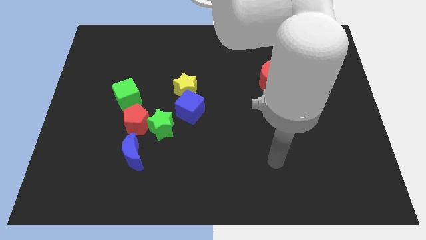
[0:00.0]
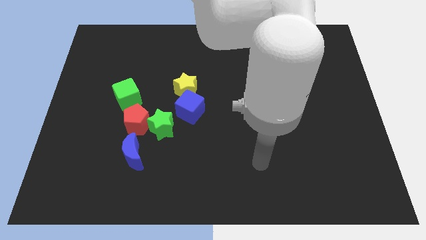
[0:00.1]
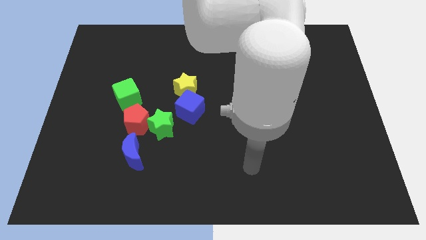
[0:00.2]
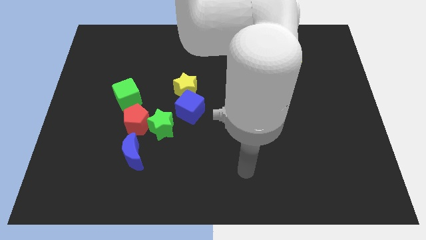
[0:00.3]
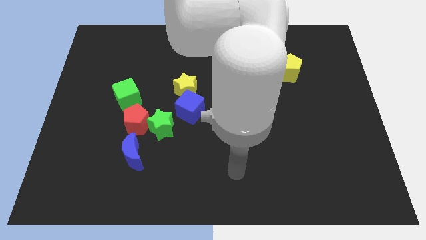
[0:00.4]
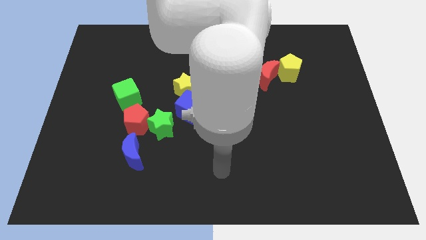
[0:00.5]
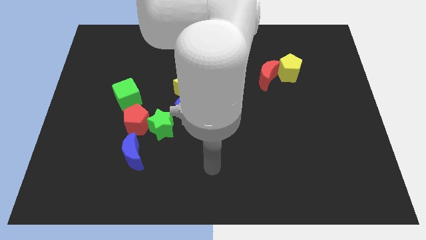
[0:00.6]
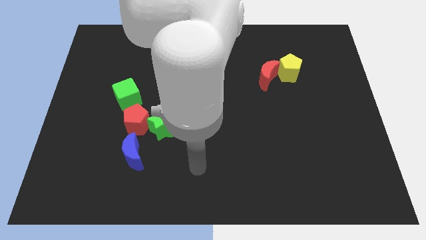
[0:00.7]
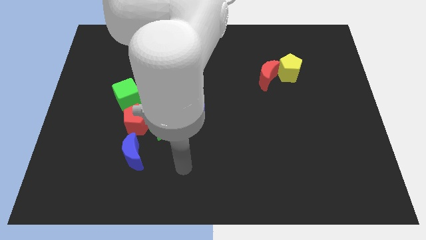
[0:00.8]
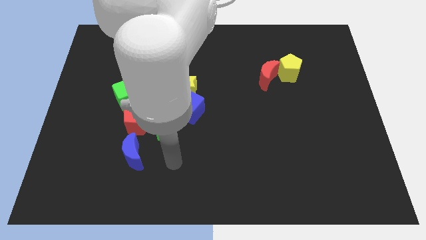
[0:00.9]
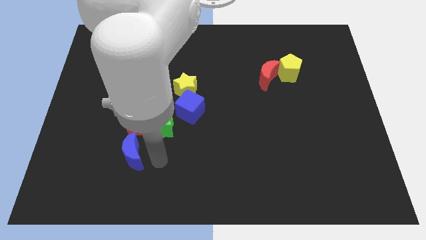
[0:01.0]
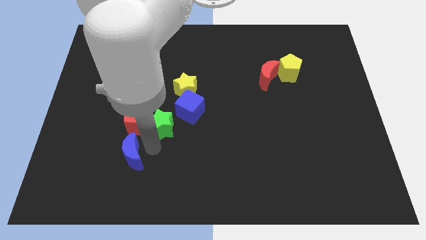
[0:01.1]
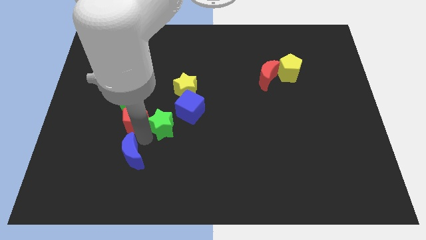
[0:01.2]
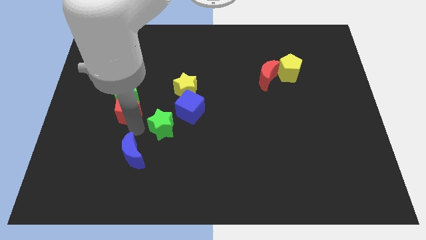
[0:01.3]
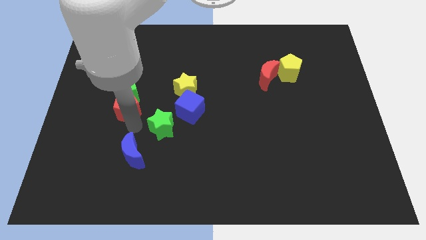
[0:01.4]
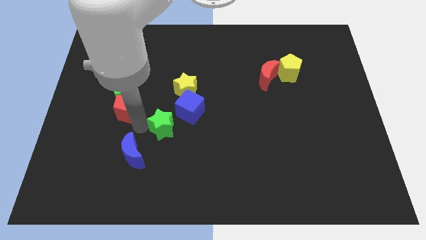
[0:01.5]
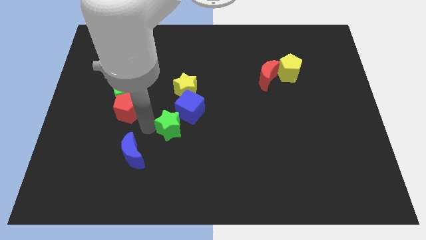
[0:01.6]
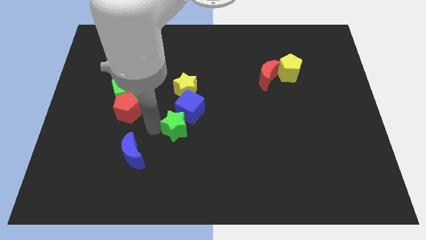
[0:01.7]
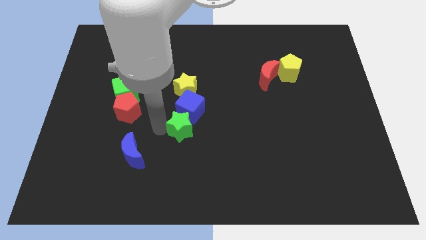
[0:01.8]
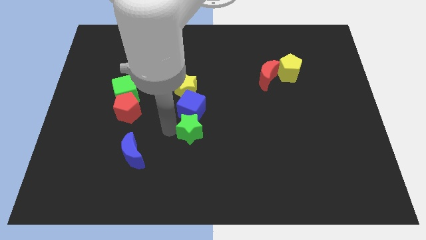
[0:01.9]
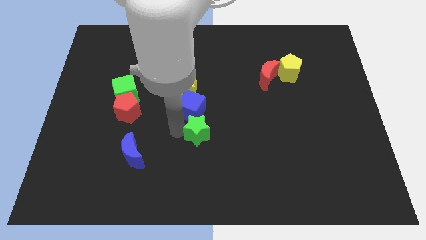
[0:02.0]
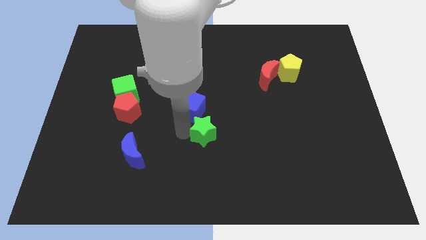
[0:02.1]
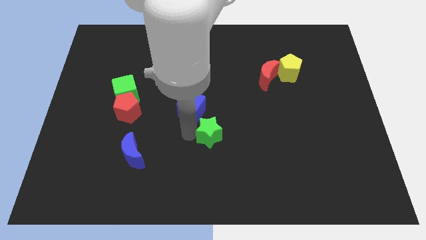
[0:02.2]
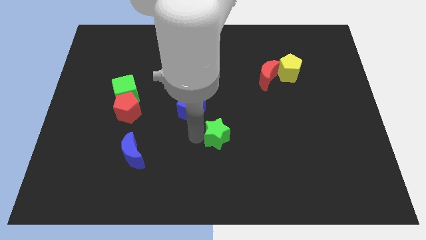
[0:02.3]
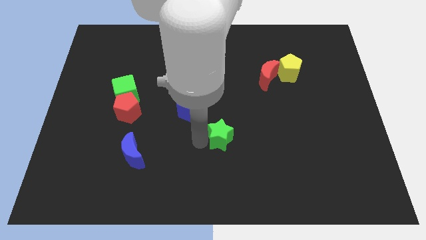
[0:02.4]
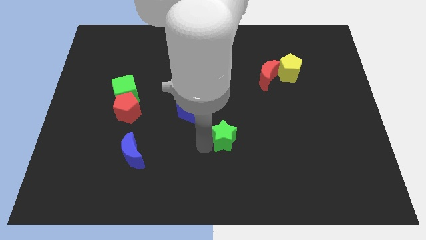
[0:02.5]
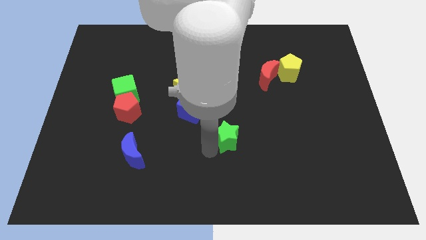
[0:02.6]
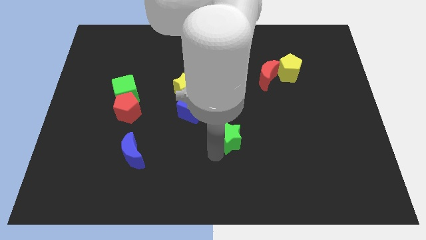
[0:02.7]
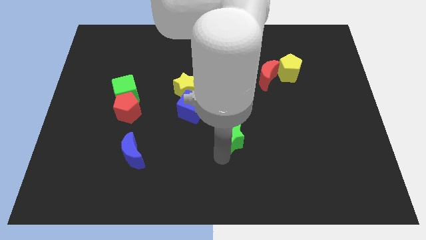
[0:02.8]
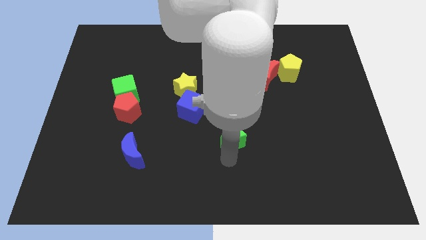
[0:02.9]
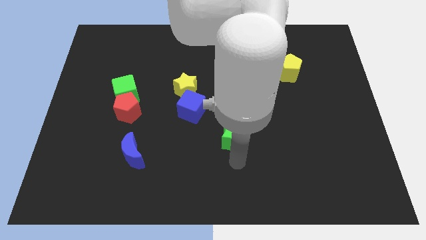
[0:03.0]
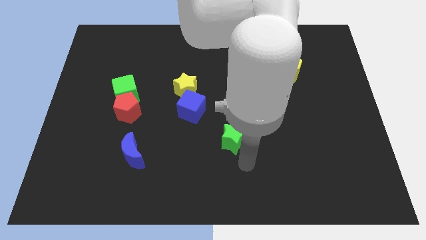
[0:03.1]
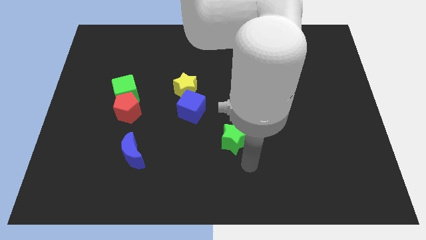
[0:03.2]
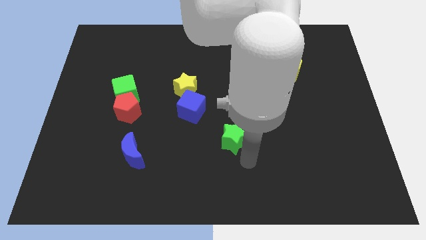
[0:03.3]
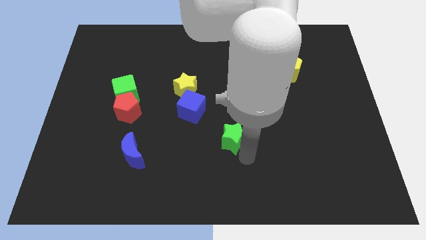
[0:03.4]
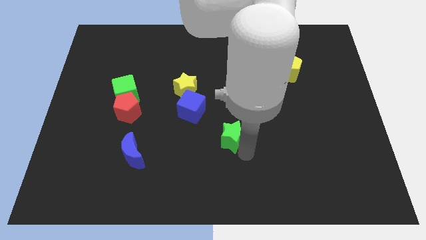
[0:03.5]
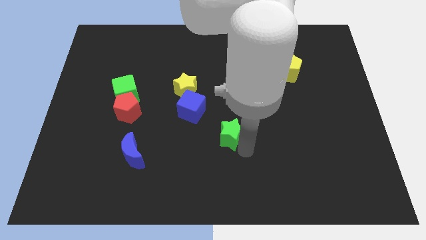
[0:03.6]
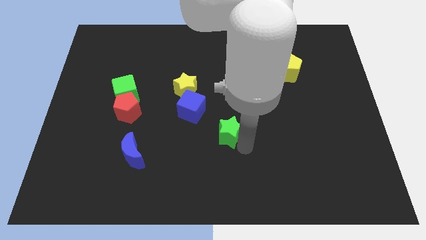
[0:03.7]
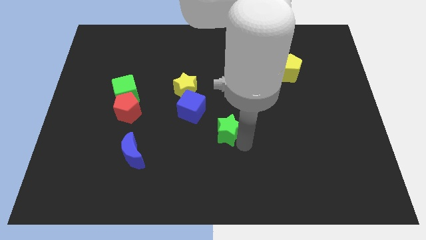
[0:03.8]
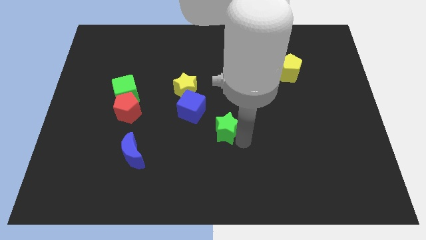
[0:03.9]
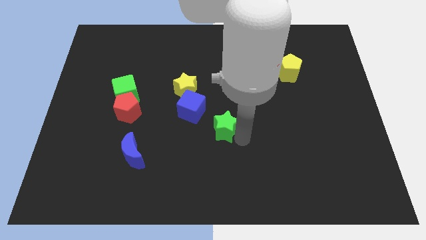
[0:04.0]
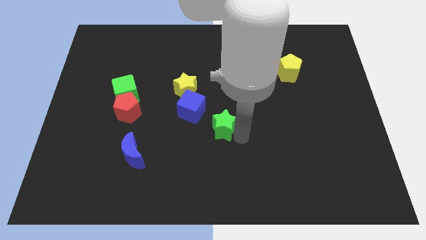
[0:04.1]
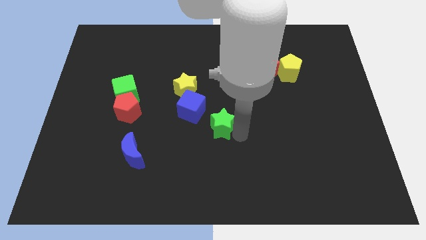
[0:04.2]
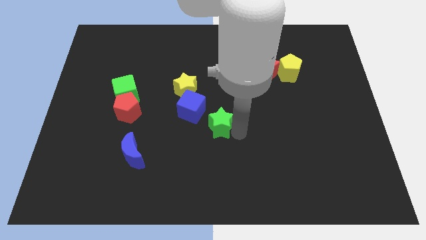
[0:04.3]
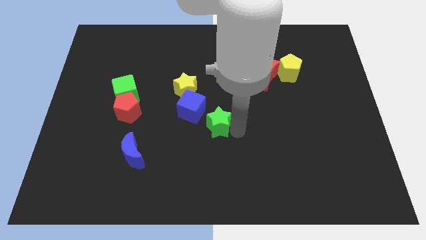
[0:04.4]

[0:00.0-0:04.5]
slide the green star up and to the right diagonally a bit

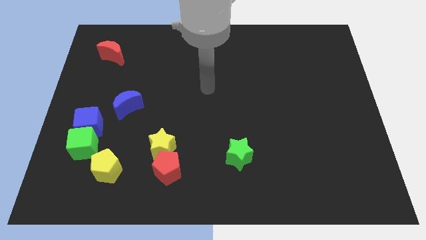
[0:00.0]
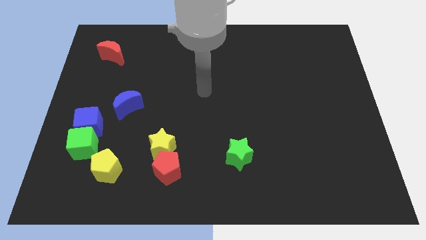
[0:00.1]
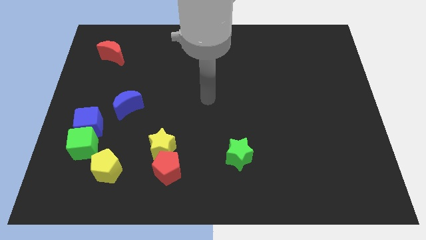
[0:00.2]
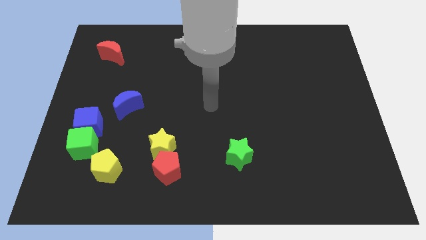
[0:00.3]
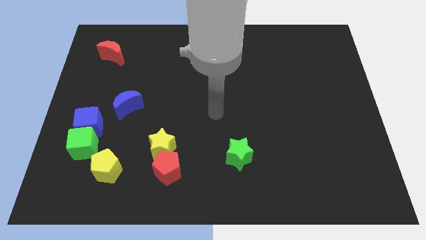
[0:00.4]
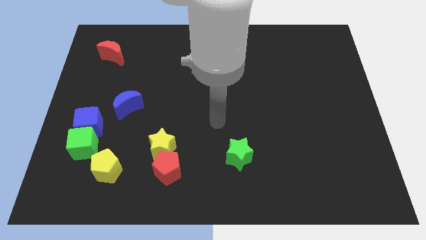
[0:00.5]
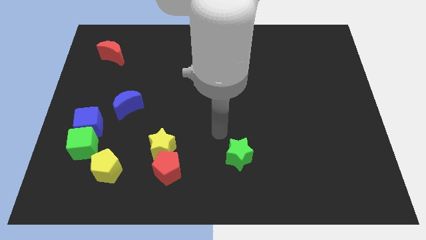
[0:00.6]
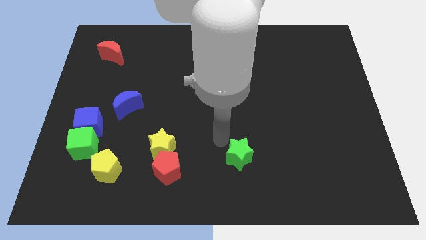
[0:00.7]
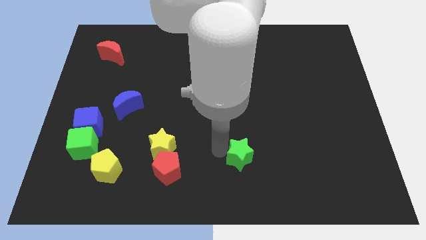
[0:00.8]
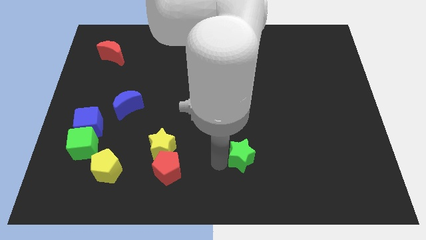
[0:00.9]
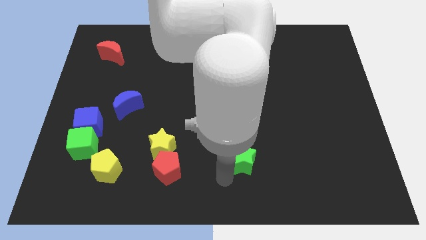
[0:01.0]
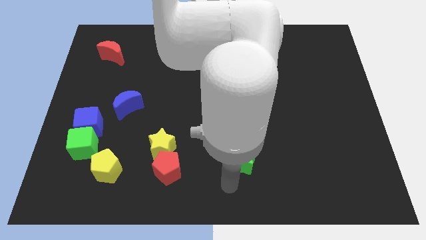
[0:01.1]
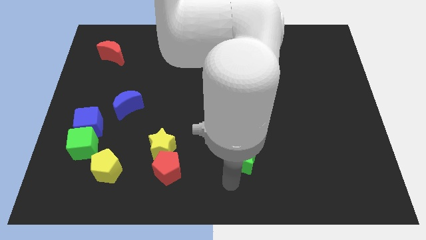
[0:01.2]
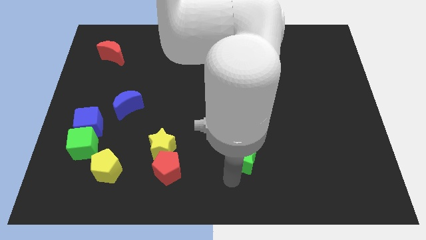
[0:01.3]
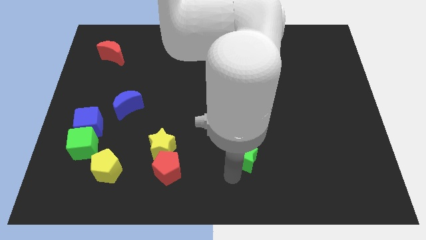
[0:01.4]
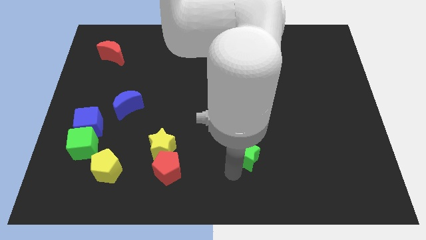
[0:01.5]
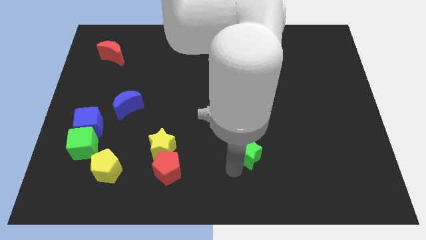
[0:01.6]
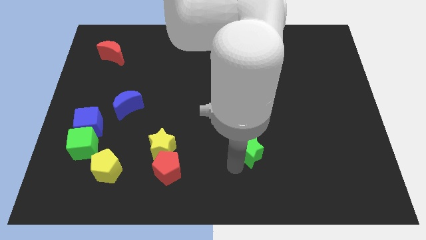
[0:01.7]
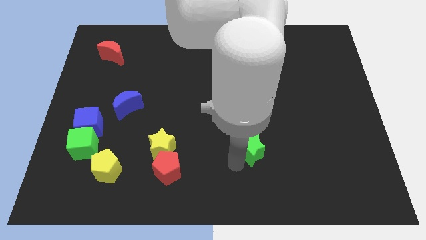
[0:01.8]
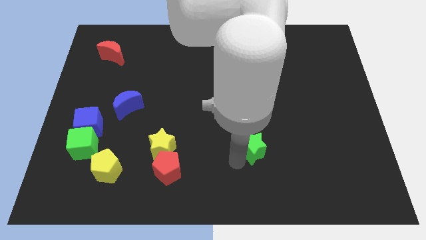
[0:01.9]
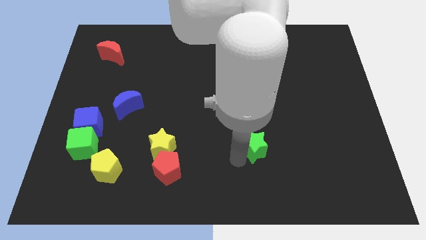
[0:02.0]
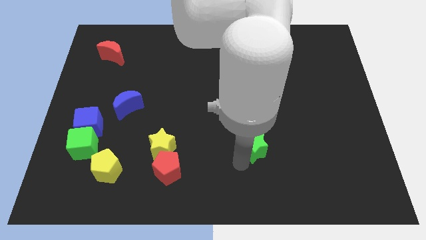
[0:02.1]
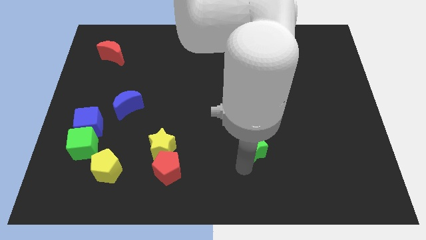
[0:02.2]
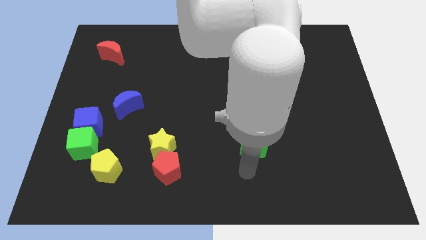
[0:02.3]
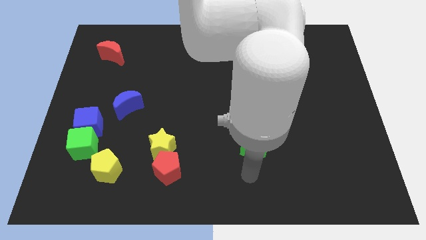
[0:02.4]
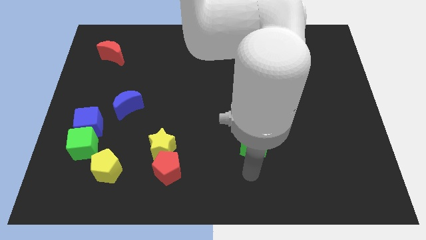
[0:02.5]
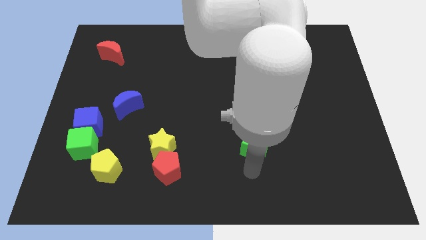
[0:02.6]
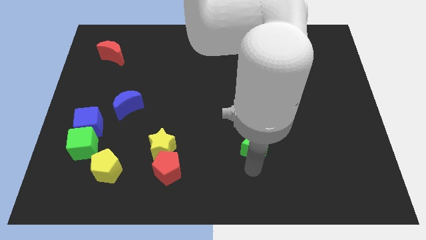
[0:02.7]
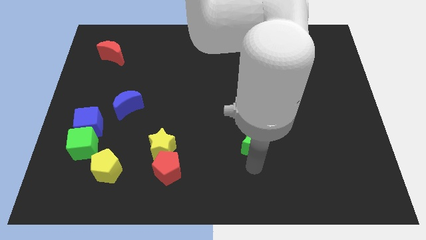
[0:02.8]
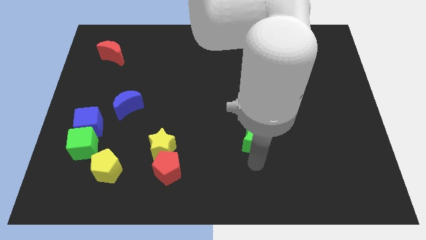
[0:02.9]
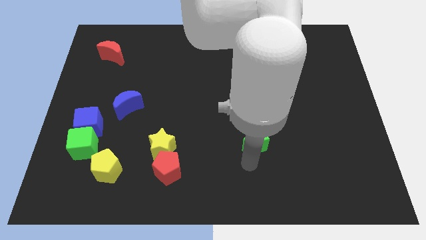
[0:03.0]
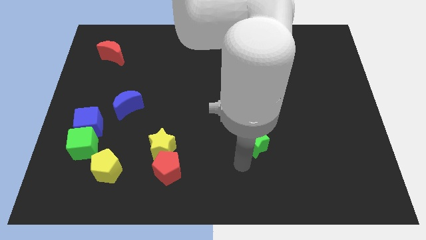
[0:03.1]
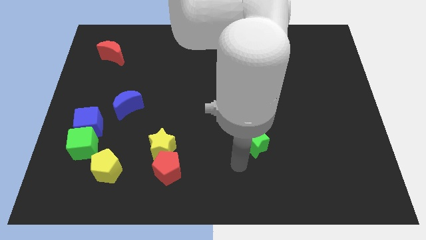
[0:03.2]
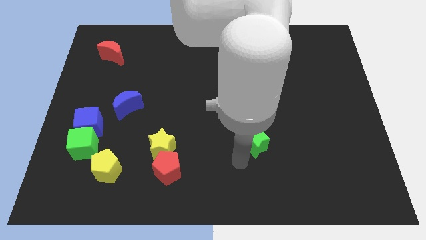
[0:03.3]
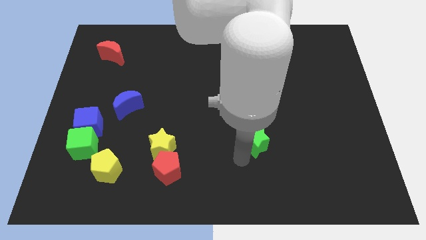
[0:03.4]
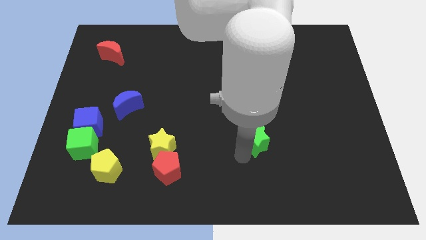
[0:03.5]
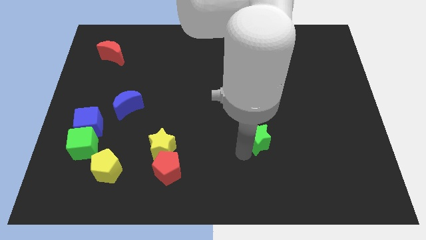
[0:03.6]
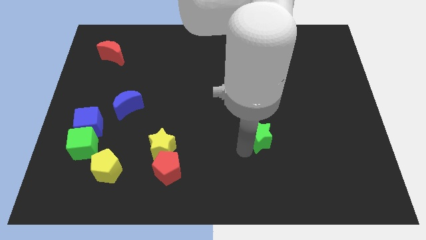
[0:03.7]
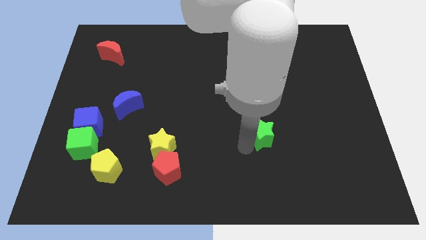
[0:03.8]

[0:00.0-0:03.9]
push the green star up and right slightly
